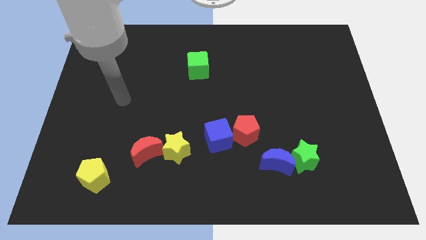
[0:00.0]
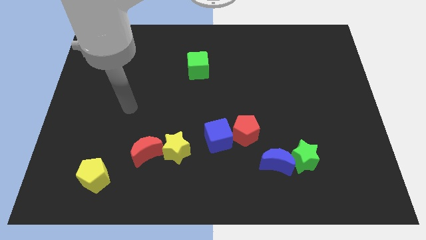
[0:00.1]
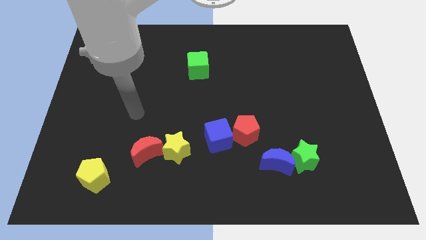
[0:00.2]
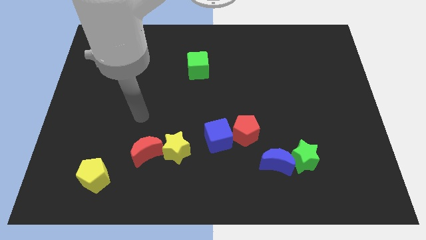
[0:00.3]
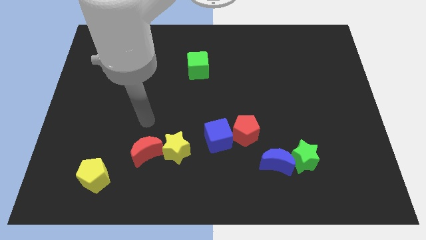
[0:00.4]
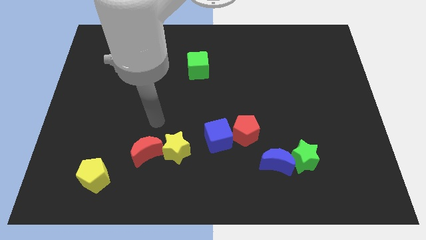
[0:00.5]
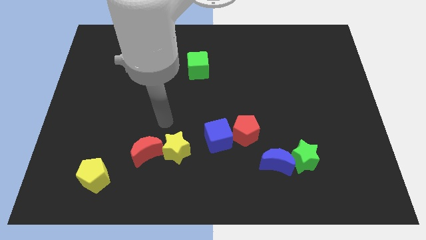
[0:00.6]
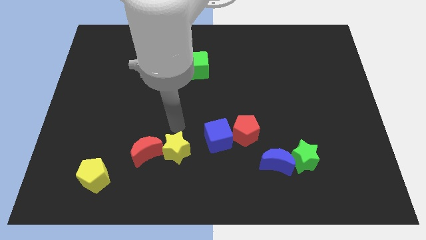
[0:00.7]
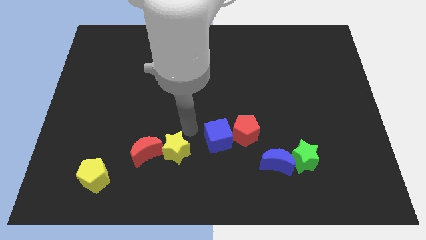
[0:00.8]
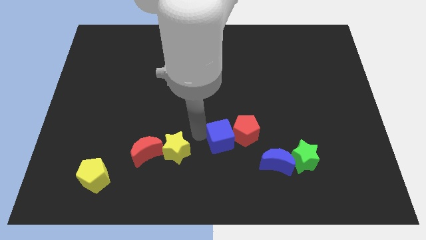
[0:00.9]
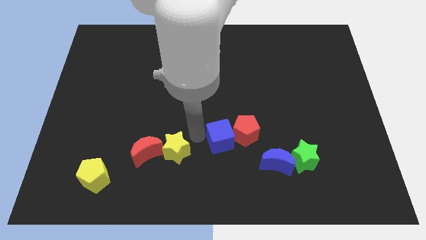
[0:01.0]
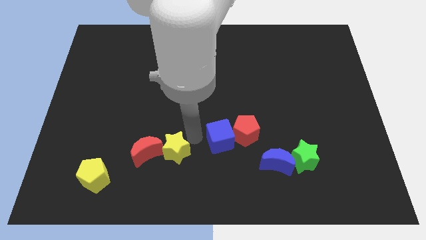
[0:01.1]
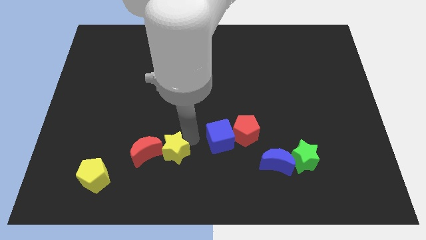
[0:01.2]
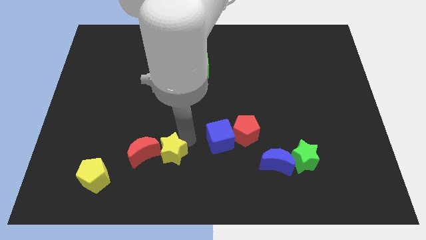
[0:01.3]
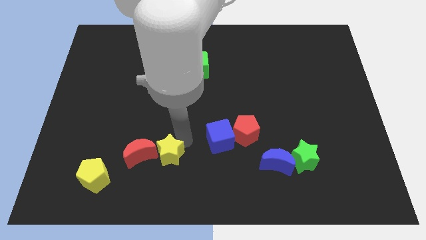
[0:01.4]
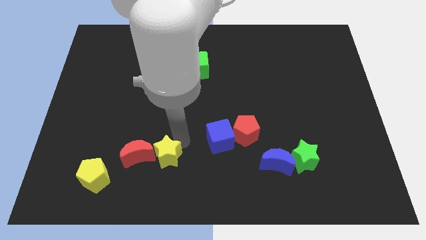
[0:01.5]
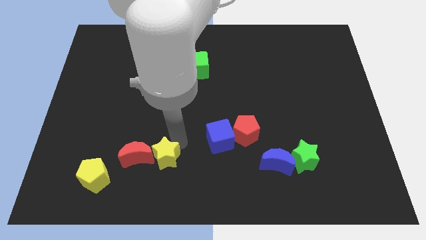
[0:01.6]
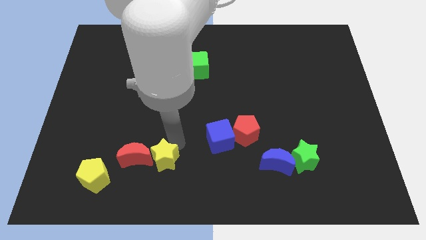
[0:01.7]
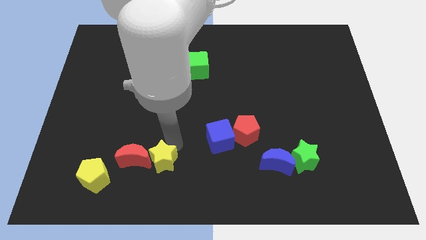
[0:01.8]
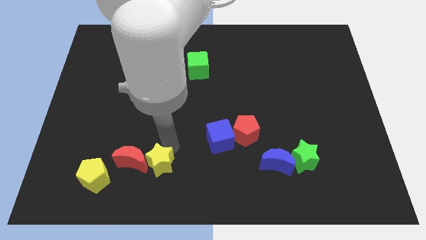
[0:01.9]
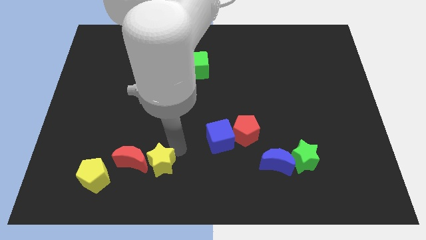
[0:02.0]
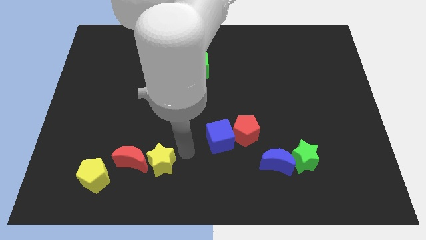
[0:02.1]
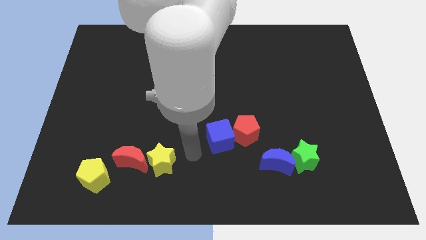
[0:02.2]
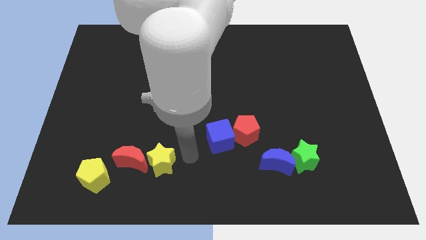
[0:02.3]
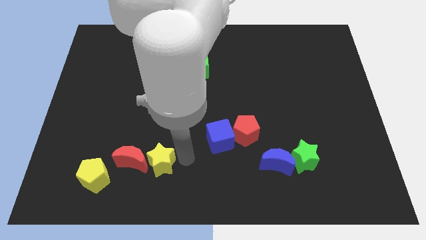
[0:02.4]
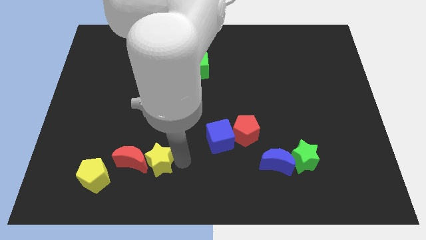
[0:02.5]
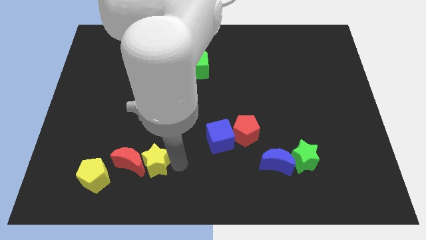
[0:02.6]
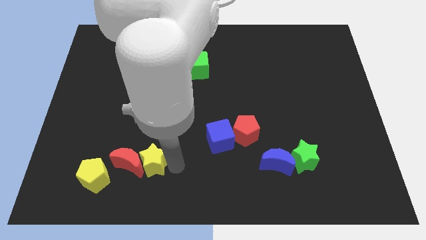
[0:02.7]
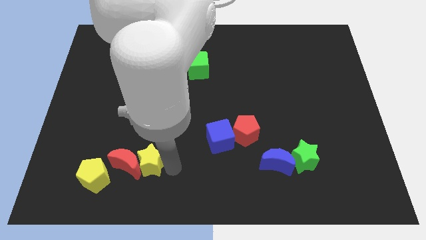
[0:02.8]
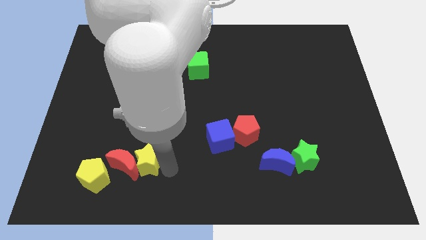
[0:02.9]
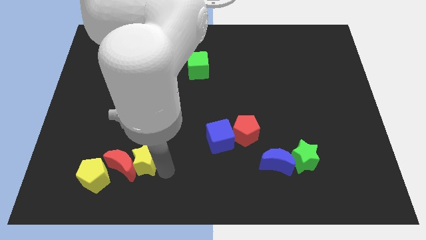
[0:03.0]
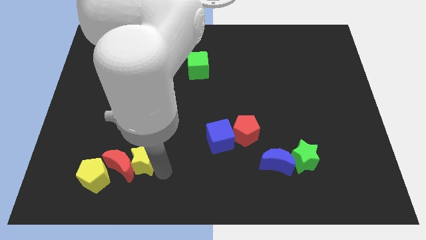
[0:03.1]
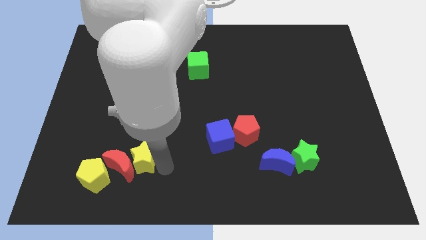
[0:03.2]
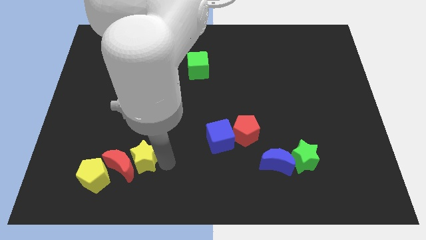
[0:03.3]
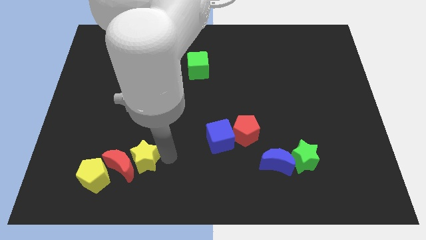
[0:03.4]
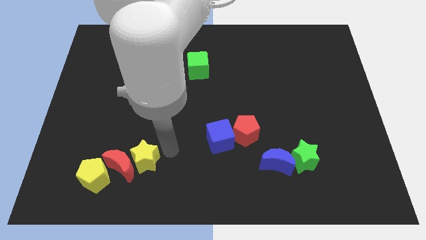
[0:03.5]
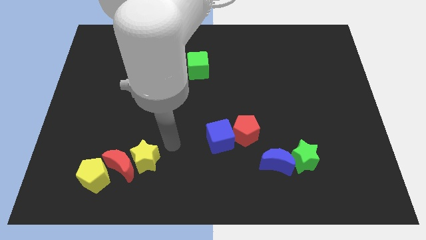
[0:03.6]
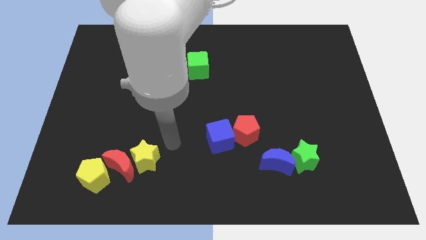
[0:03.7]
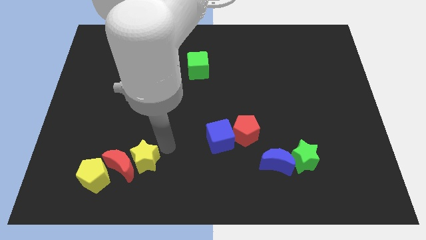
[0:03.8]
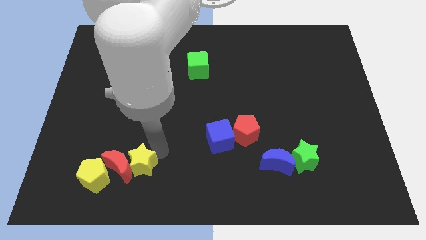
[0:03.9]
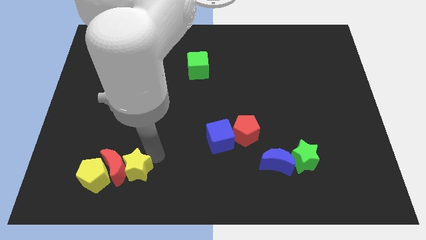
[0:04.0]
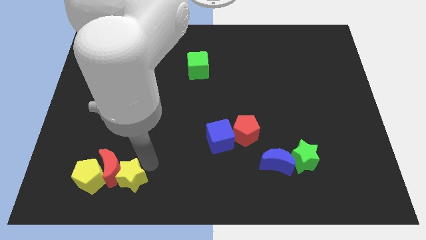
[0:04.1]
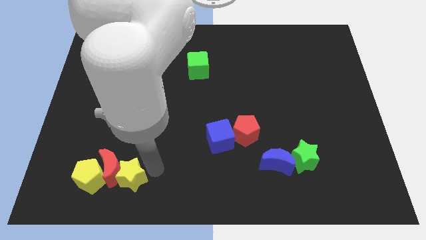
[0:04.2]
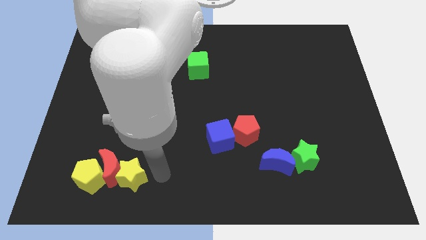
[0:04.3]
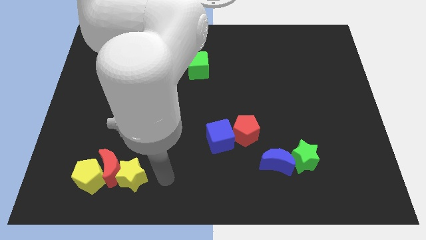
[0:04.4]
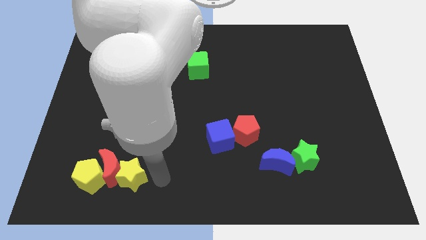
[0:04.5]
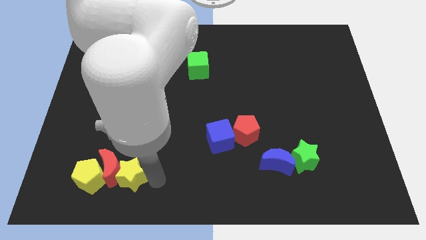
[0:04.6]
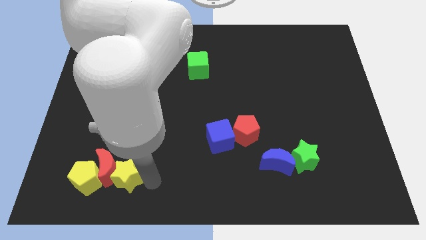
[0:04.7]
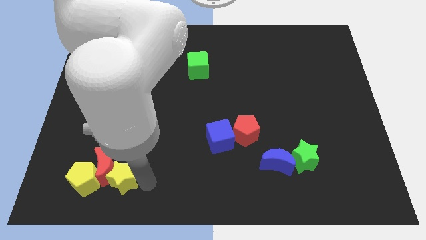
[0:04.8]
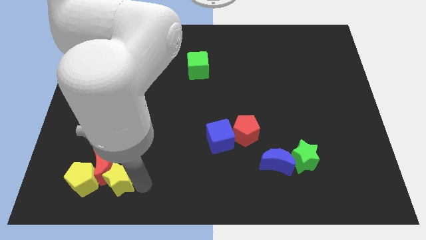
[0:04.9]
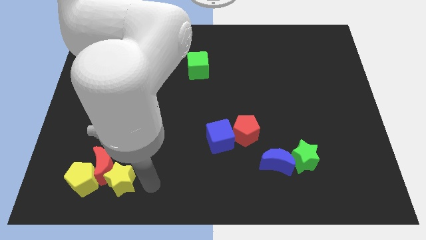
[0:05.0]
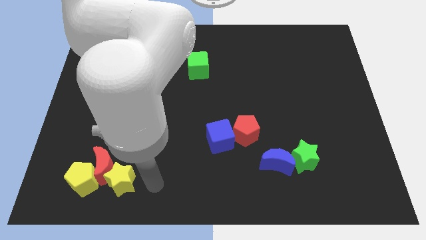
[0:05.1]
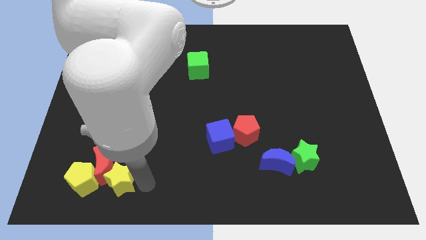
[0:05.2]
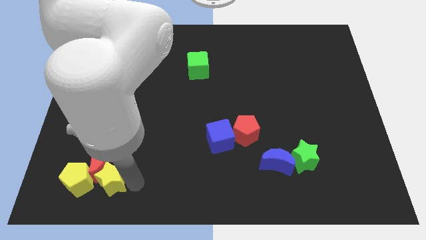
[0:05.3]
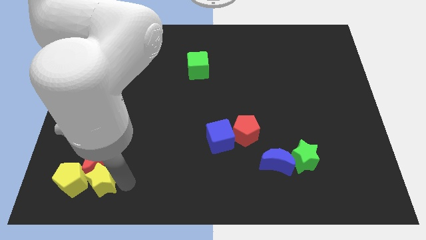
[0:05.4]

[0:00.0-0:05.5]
push the yellow star close to the yellow pentagon

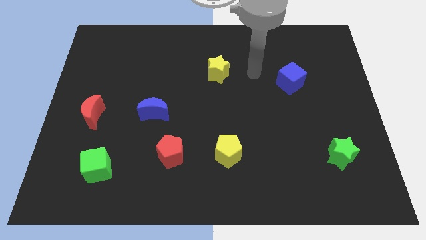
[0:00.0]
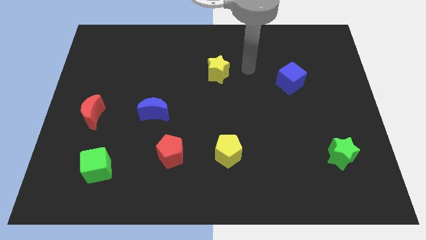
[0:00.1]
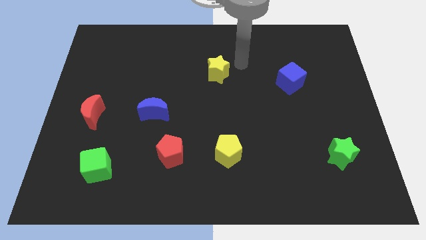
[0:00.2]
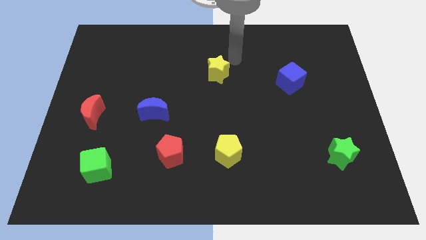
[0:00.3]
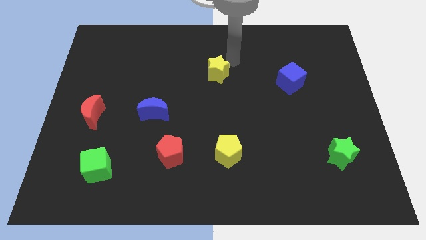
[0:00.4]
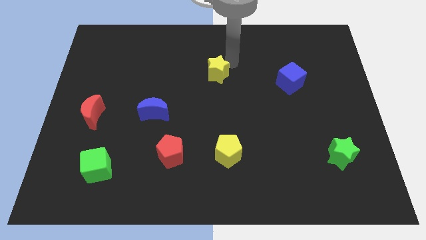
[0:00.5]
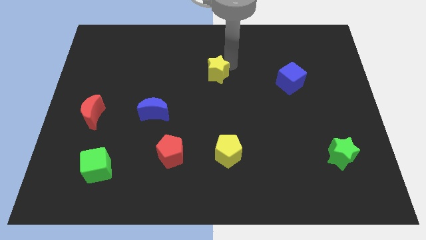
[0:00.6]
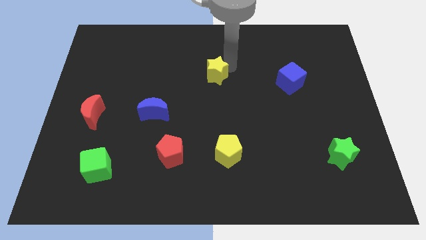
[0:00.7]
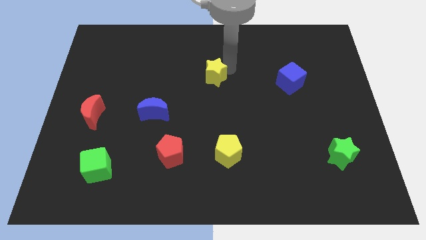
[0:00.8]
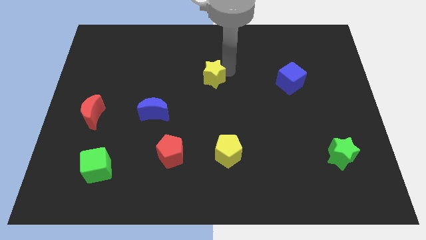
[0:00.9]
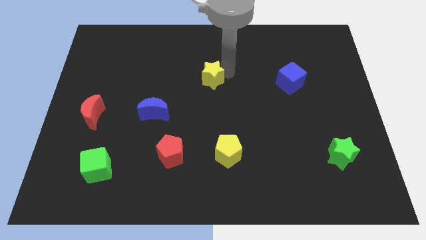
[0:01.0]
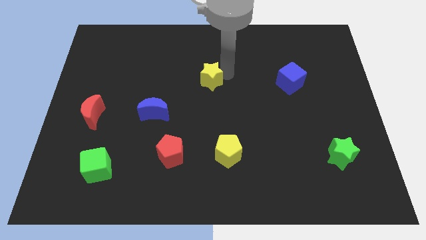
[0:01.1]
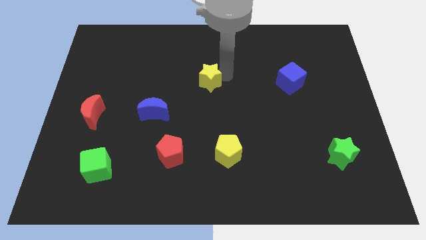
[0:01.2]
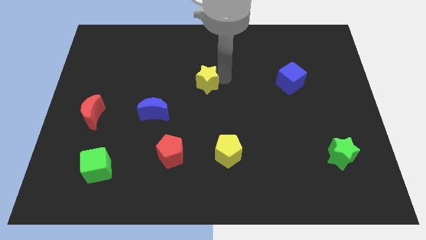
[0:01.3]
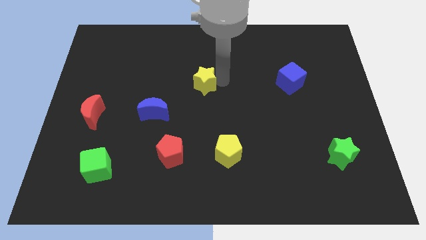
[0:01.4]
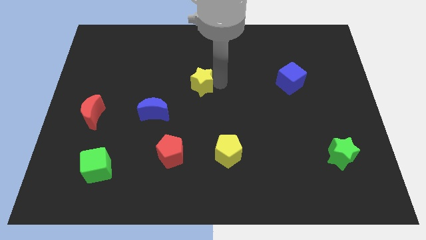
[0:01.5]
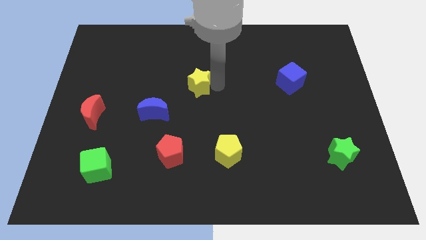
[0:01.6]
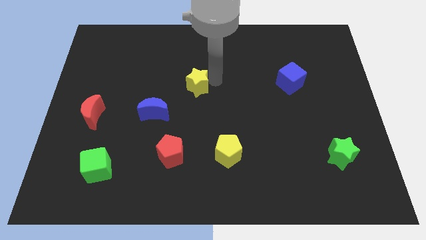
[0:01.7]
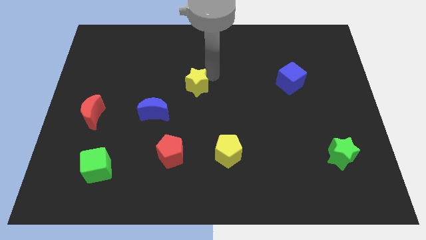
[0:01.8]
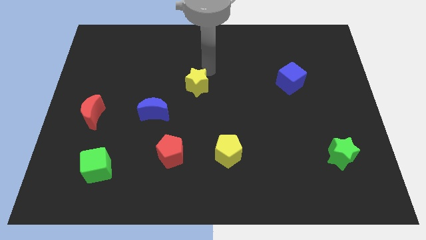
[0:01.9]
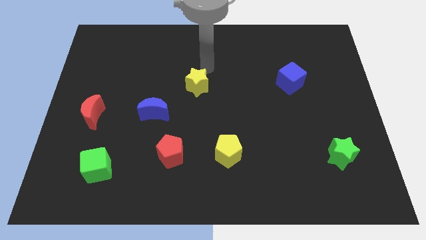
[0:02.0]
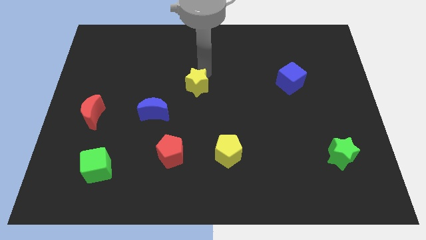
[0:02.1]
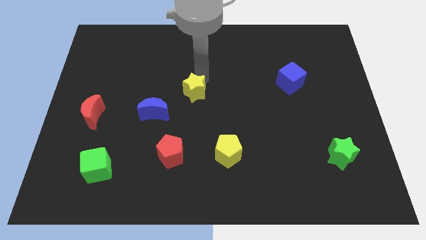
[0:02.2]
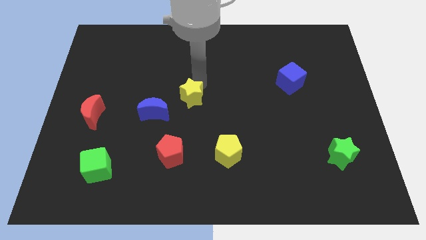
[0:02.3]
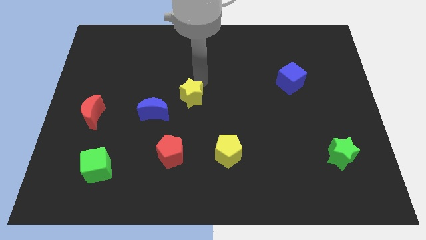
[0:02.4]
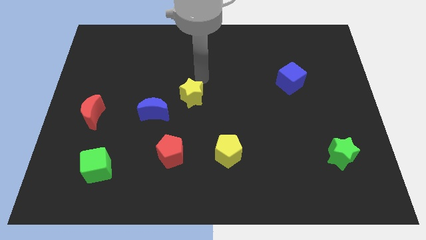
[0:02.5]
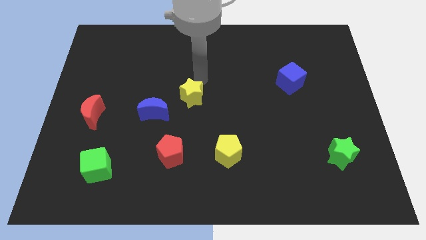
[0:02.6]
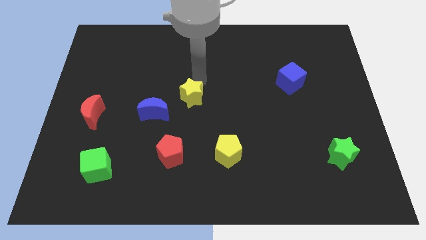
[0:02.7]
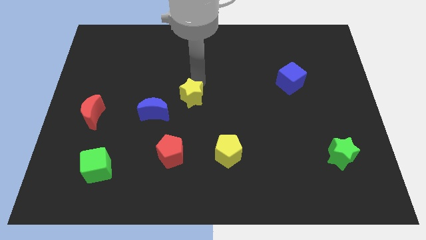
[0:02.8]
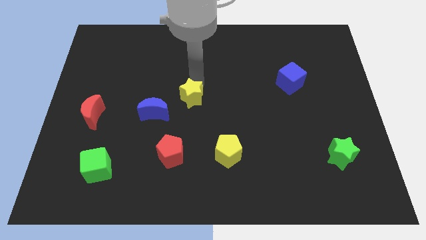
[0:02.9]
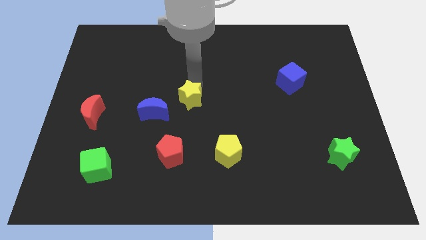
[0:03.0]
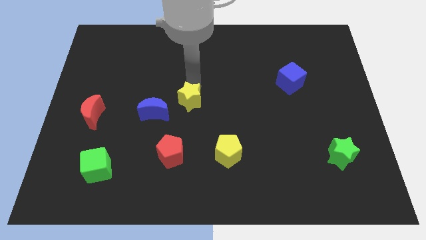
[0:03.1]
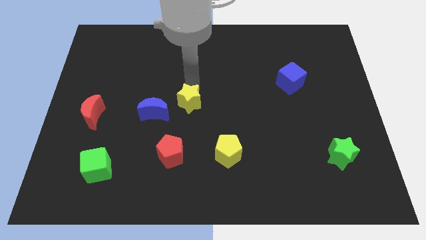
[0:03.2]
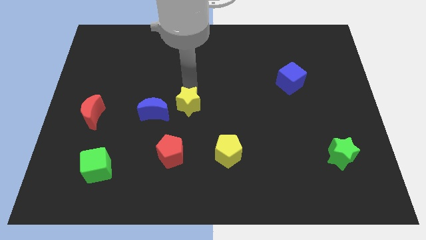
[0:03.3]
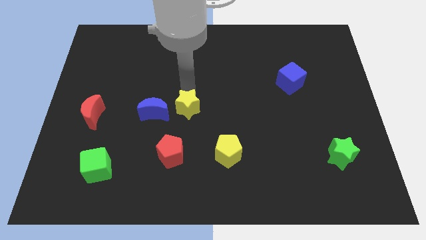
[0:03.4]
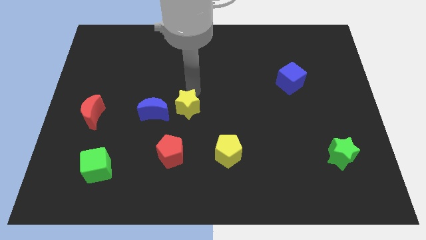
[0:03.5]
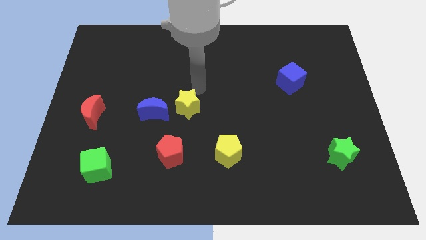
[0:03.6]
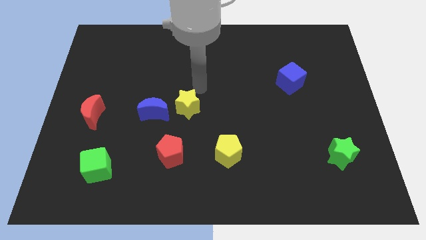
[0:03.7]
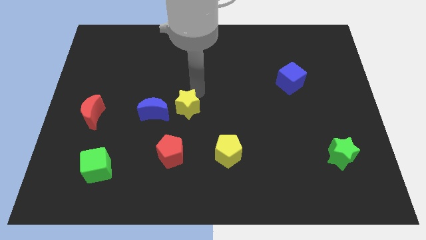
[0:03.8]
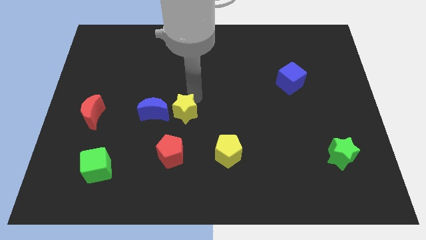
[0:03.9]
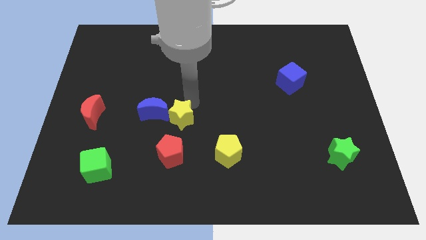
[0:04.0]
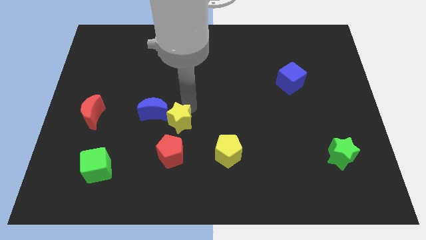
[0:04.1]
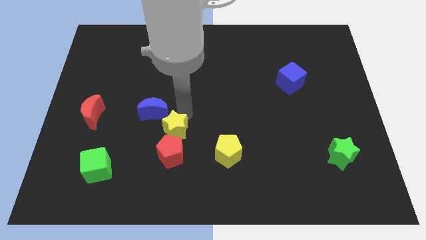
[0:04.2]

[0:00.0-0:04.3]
put the yellow star towards the red pentagon
